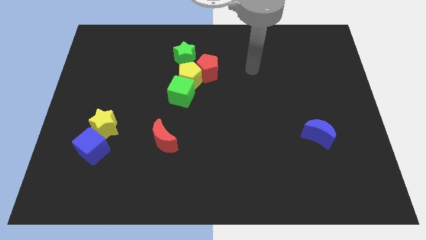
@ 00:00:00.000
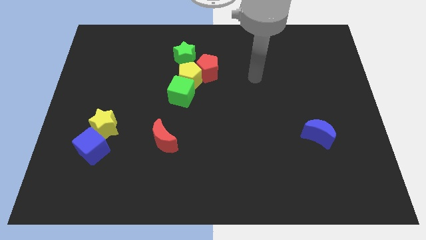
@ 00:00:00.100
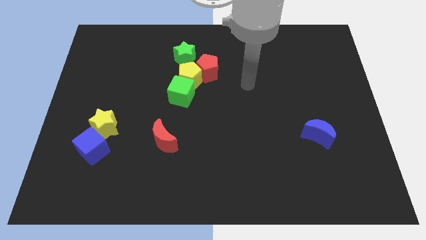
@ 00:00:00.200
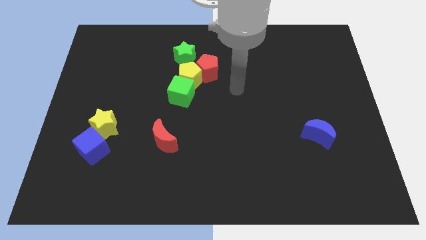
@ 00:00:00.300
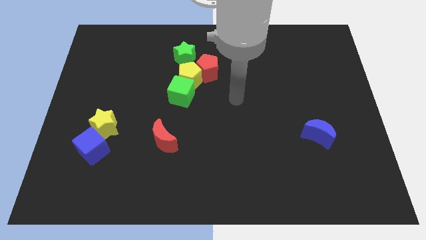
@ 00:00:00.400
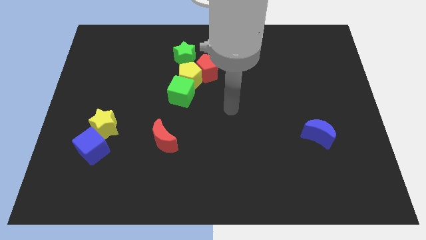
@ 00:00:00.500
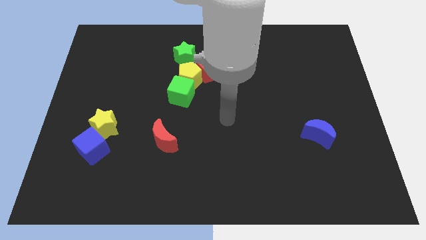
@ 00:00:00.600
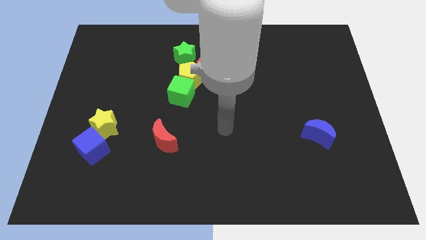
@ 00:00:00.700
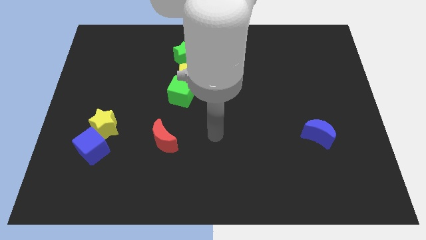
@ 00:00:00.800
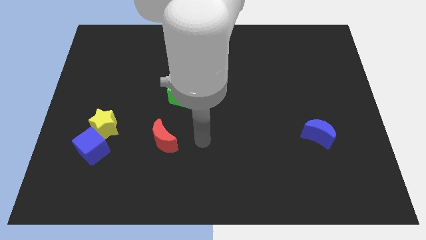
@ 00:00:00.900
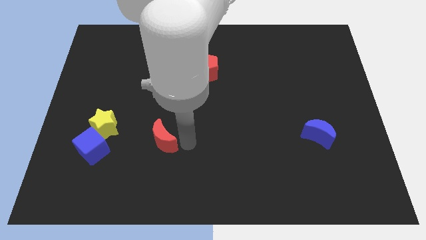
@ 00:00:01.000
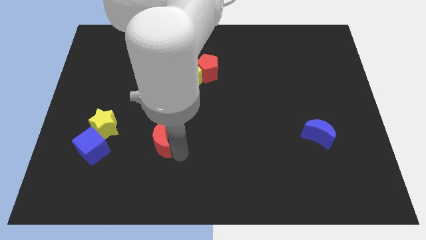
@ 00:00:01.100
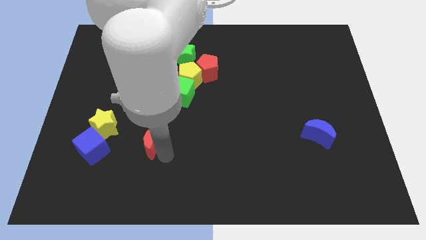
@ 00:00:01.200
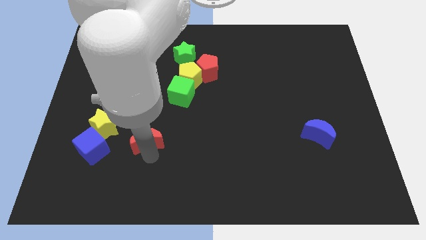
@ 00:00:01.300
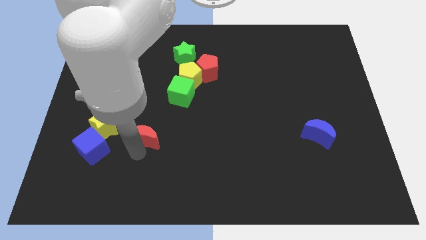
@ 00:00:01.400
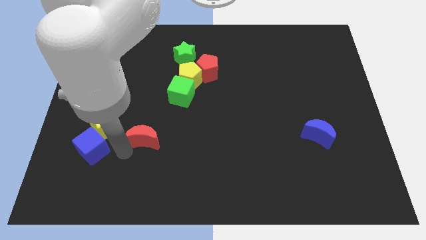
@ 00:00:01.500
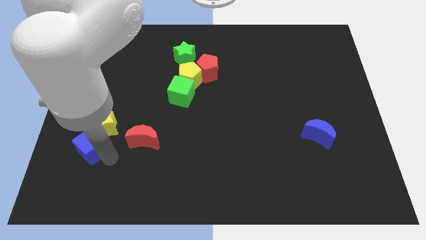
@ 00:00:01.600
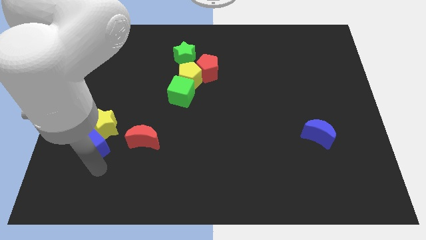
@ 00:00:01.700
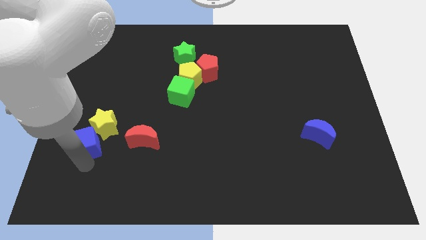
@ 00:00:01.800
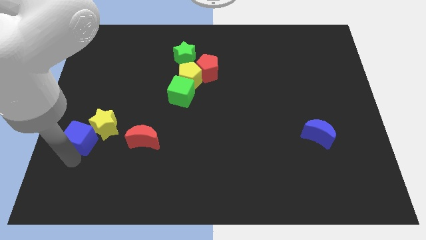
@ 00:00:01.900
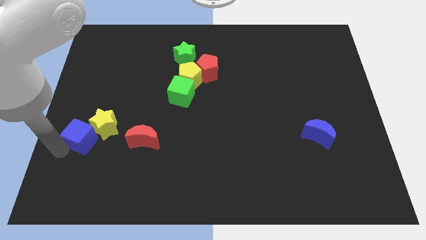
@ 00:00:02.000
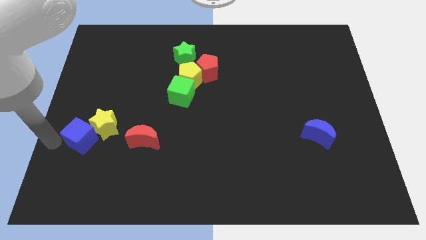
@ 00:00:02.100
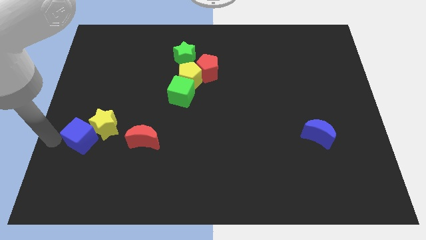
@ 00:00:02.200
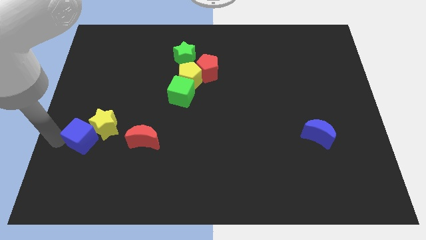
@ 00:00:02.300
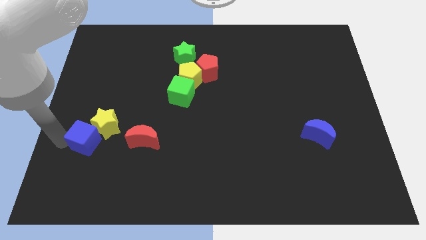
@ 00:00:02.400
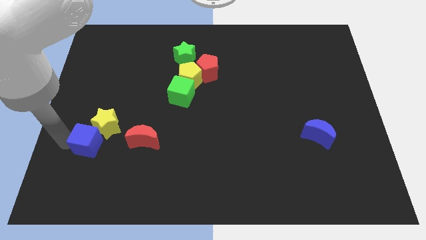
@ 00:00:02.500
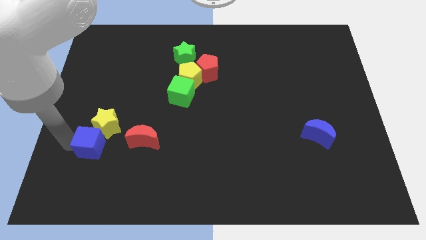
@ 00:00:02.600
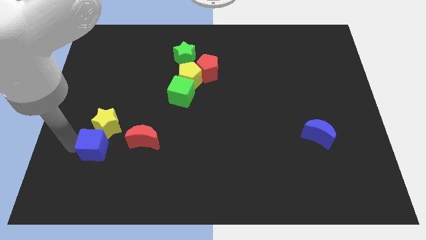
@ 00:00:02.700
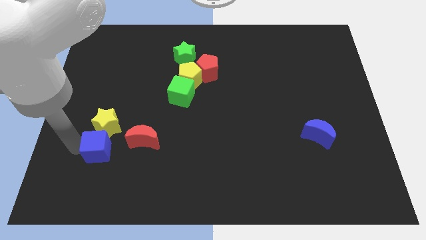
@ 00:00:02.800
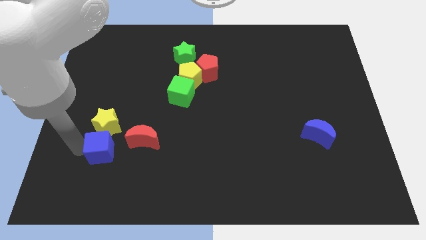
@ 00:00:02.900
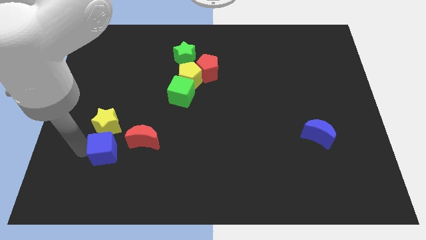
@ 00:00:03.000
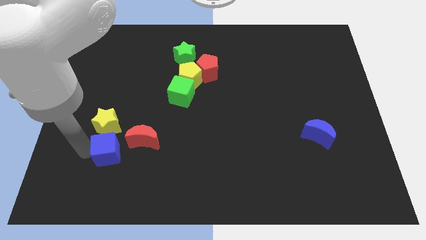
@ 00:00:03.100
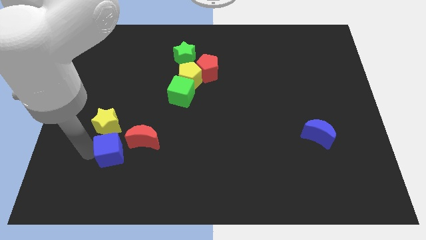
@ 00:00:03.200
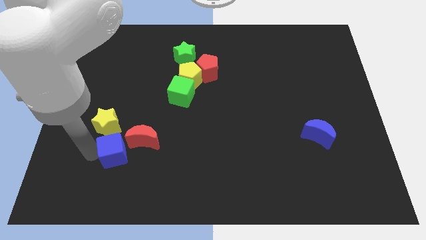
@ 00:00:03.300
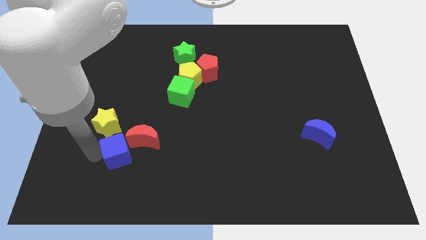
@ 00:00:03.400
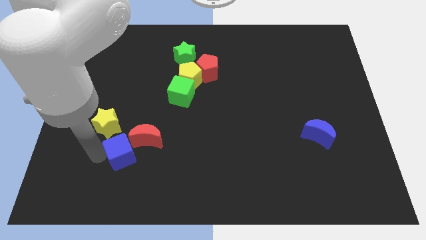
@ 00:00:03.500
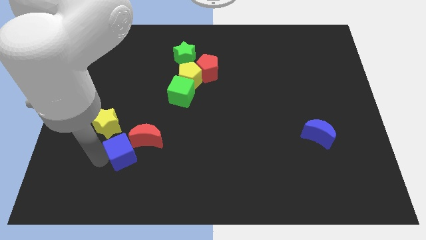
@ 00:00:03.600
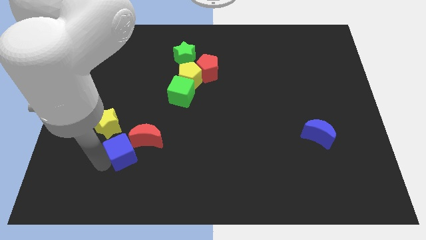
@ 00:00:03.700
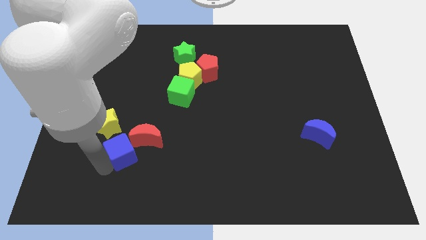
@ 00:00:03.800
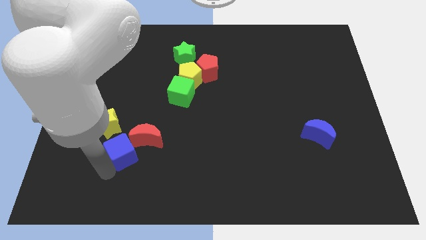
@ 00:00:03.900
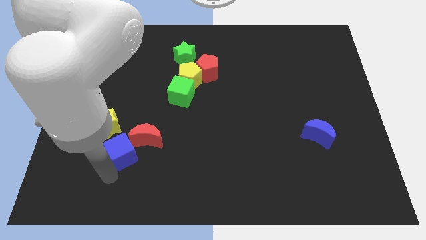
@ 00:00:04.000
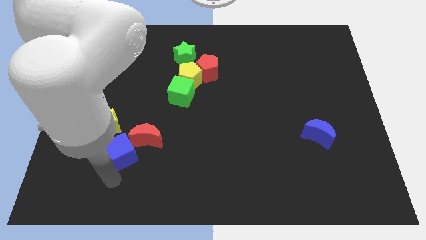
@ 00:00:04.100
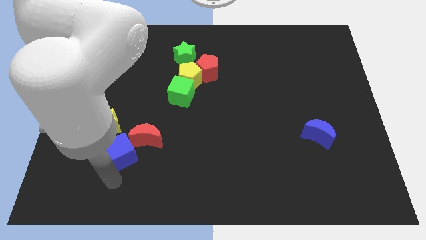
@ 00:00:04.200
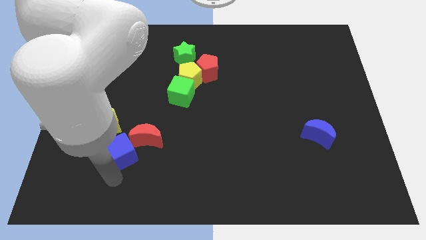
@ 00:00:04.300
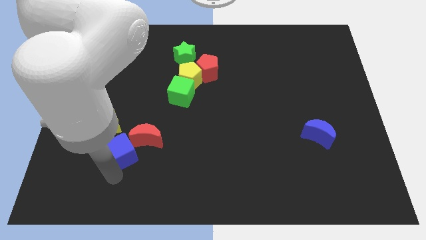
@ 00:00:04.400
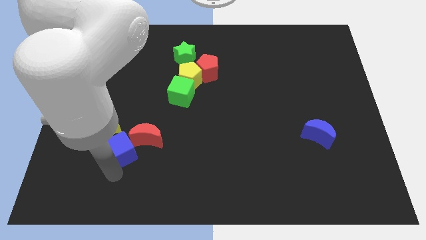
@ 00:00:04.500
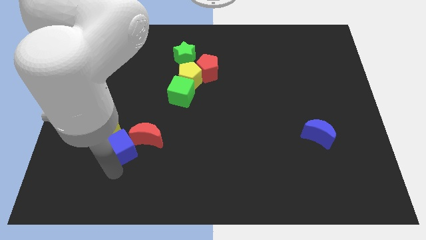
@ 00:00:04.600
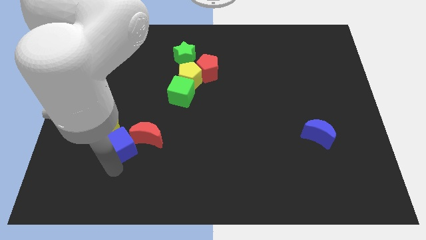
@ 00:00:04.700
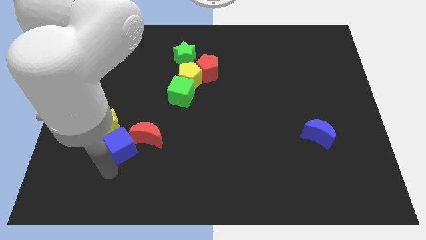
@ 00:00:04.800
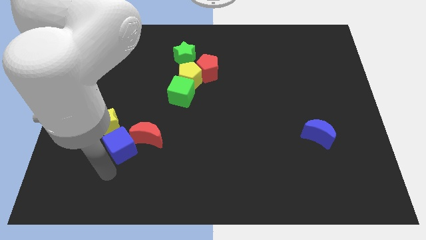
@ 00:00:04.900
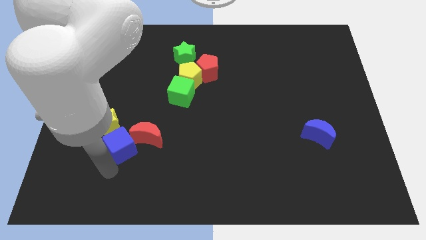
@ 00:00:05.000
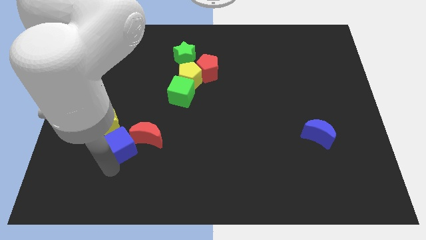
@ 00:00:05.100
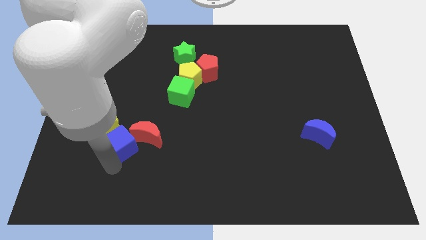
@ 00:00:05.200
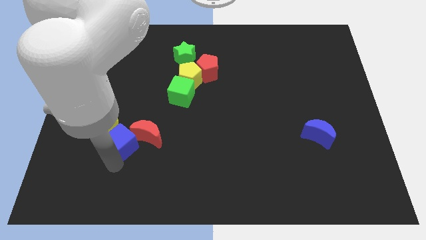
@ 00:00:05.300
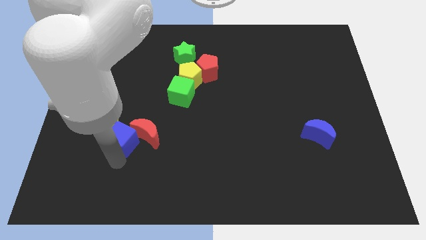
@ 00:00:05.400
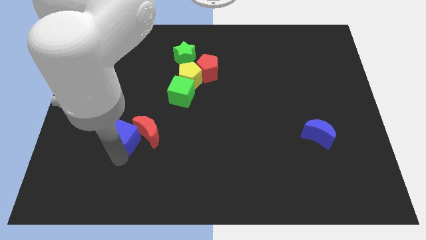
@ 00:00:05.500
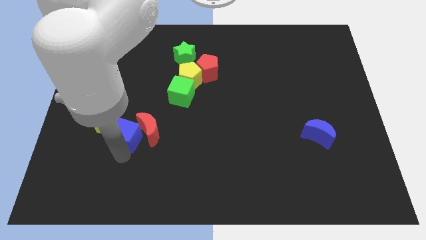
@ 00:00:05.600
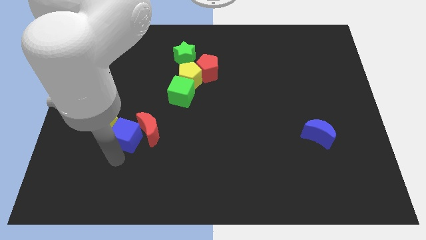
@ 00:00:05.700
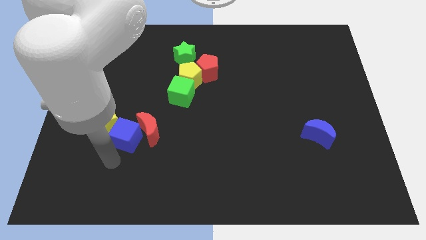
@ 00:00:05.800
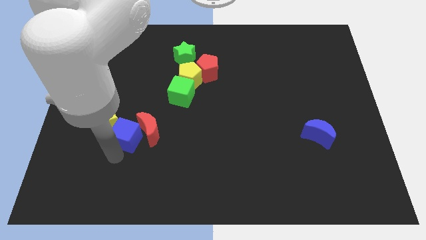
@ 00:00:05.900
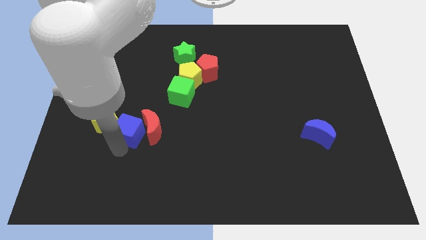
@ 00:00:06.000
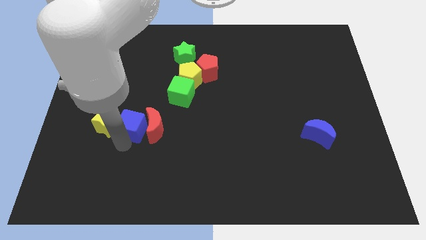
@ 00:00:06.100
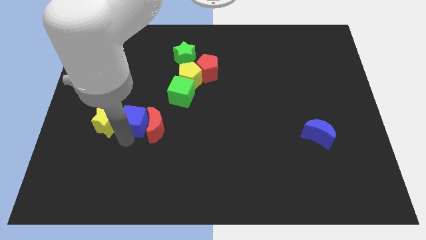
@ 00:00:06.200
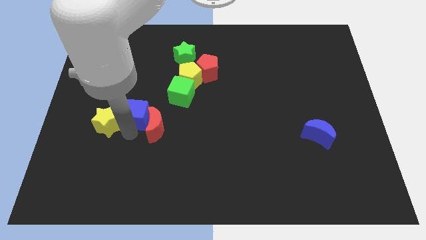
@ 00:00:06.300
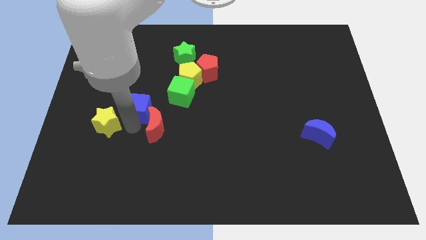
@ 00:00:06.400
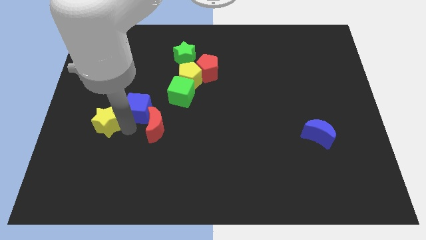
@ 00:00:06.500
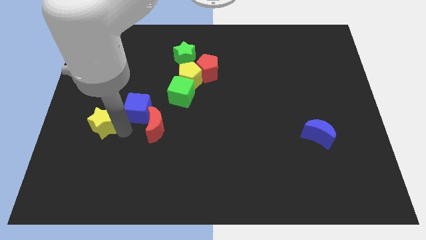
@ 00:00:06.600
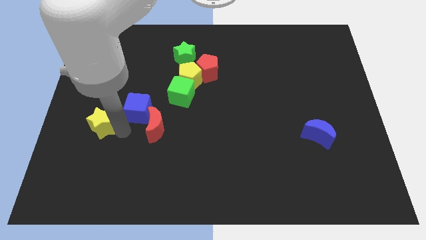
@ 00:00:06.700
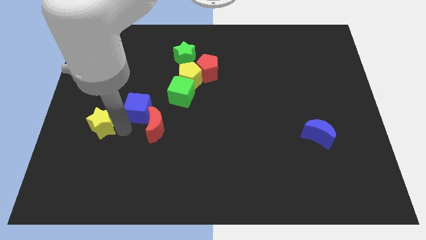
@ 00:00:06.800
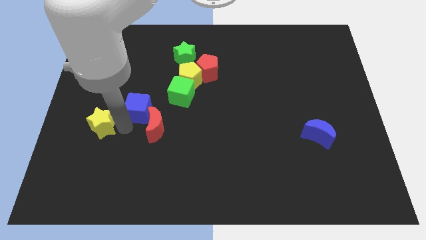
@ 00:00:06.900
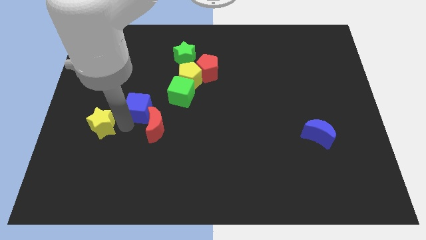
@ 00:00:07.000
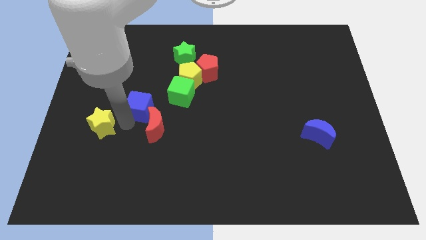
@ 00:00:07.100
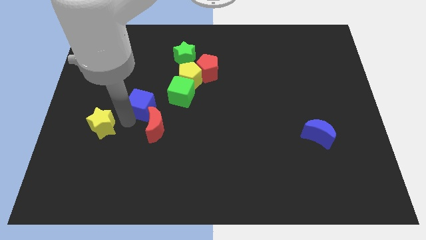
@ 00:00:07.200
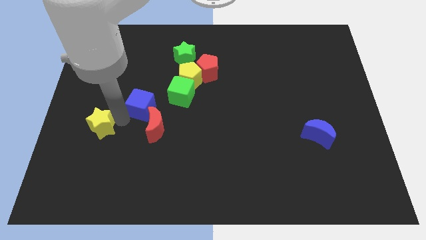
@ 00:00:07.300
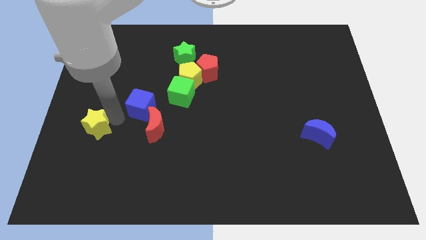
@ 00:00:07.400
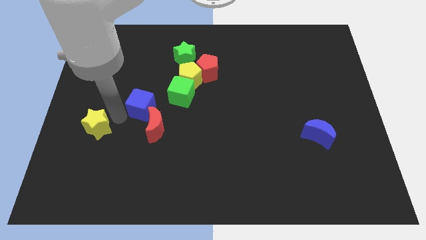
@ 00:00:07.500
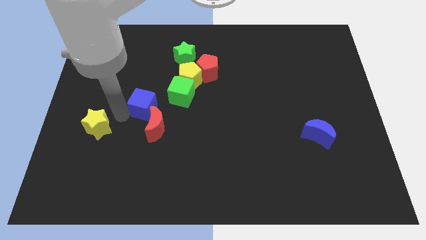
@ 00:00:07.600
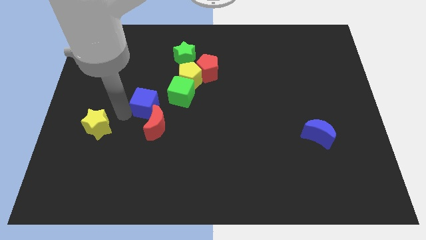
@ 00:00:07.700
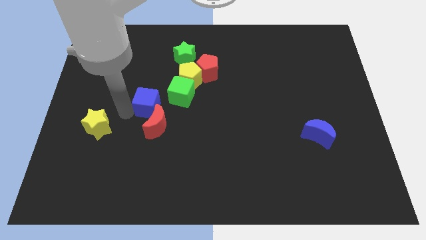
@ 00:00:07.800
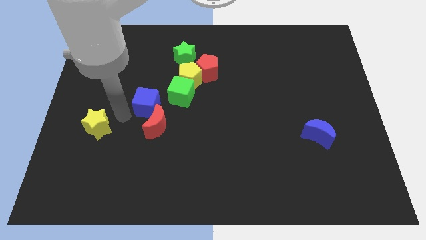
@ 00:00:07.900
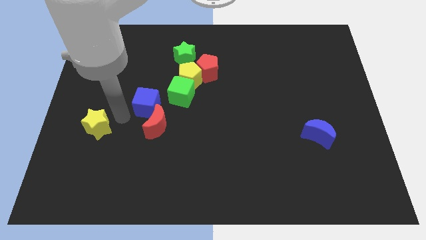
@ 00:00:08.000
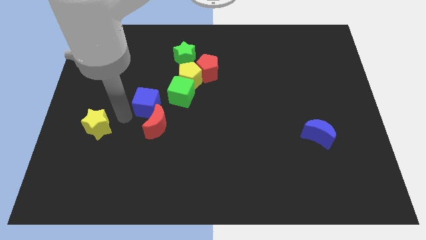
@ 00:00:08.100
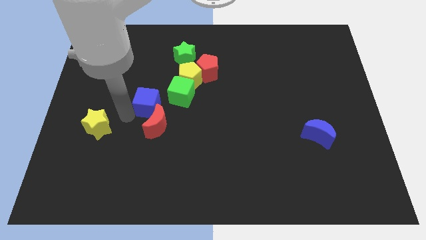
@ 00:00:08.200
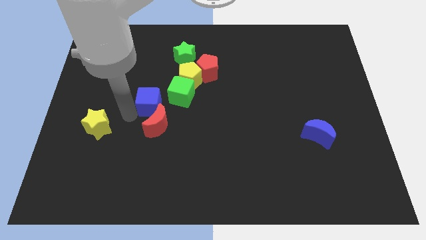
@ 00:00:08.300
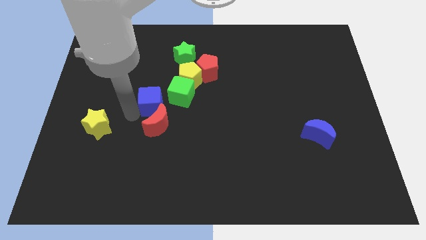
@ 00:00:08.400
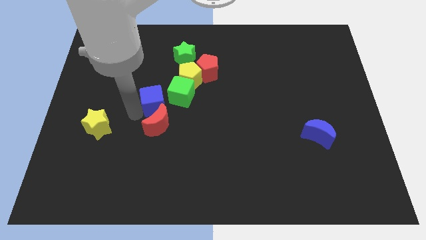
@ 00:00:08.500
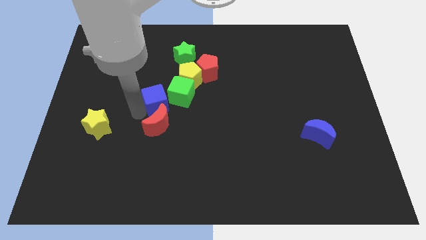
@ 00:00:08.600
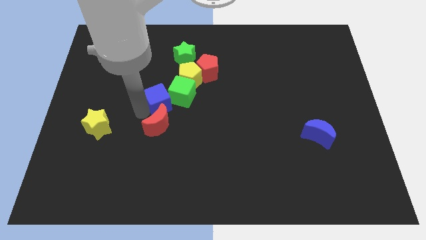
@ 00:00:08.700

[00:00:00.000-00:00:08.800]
move the blue cube close to the green cube
